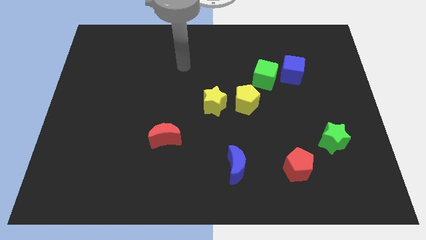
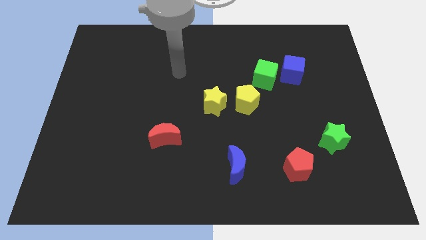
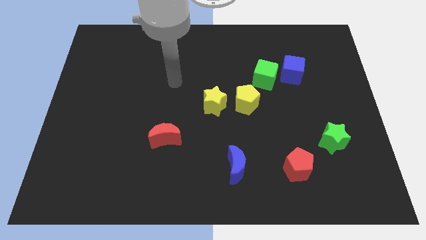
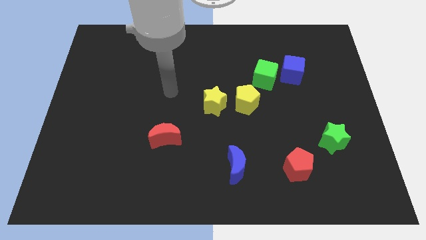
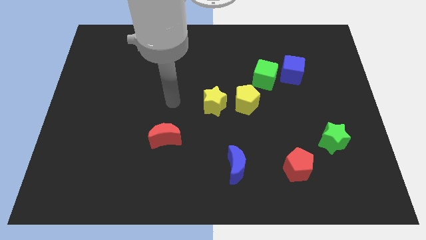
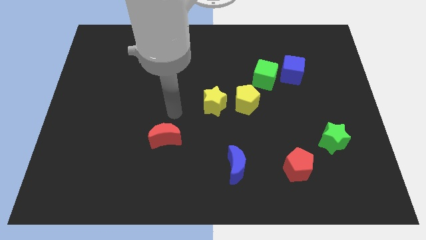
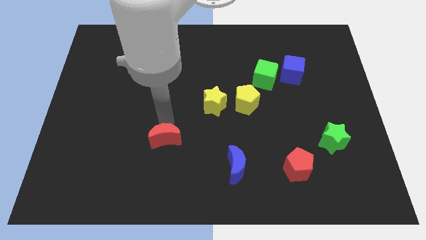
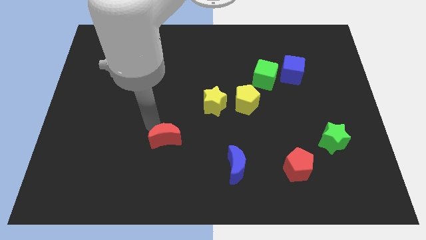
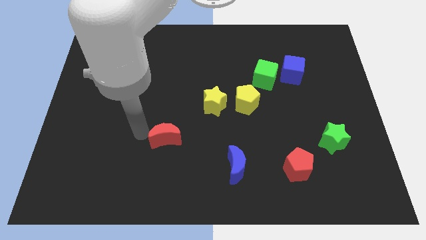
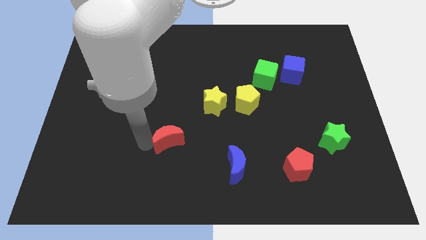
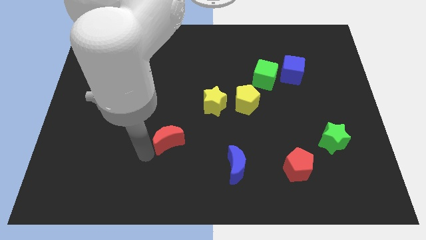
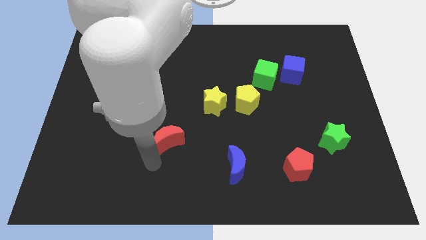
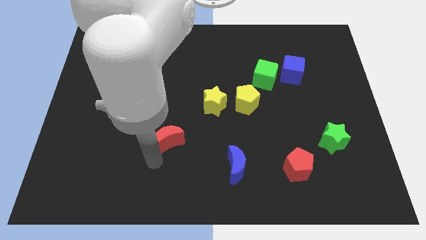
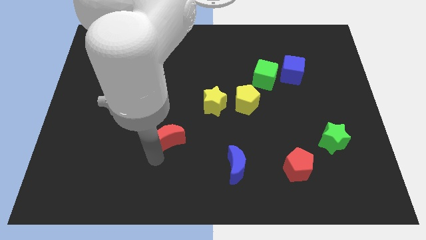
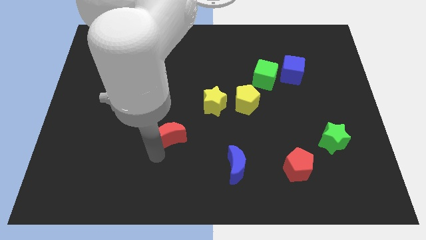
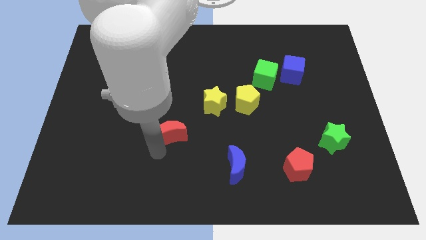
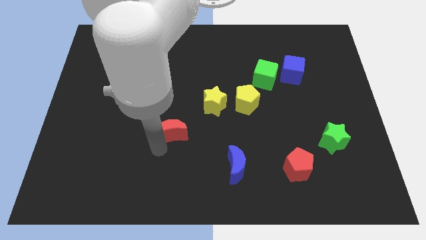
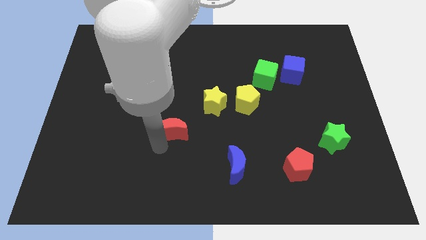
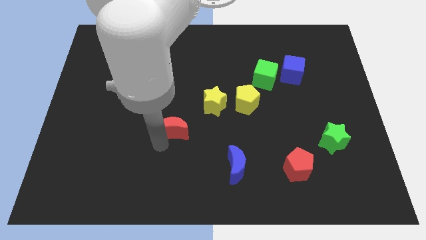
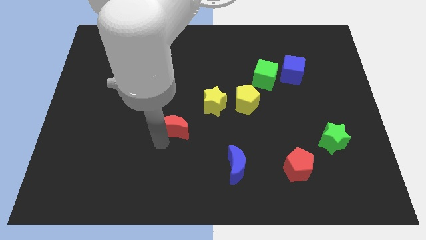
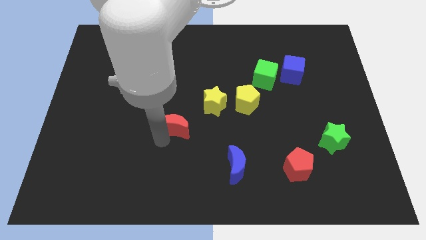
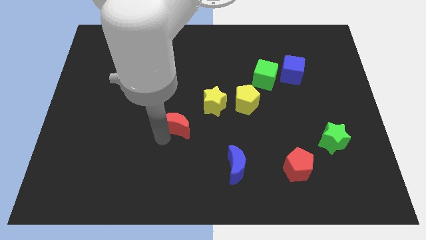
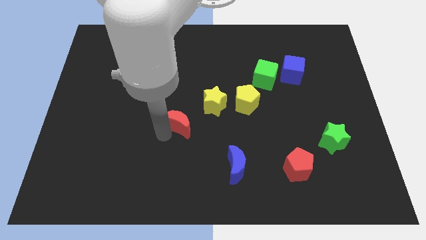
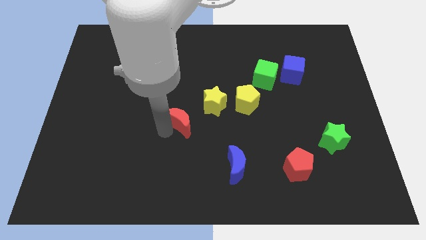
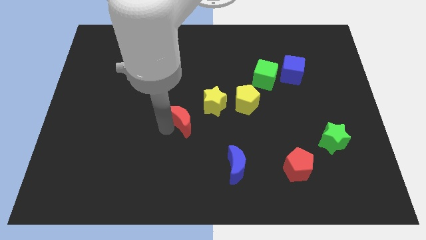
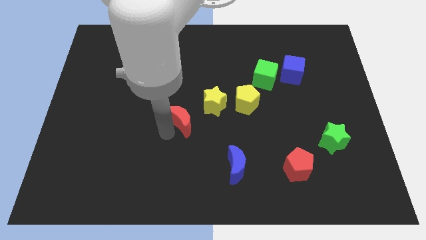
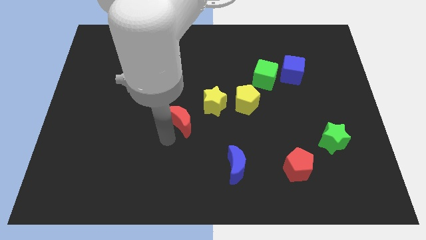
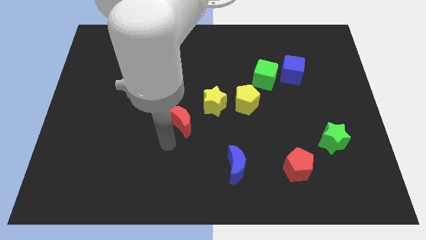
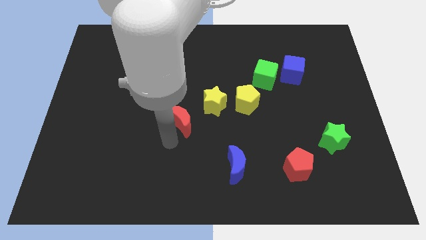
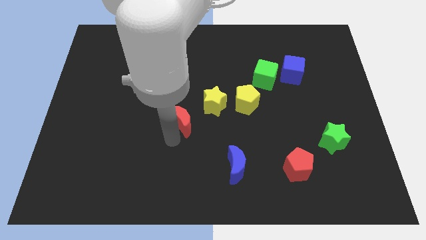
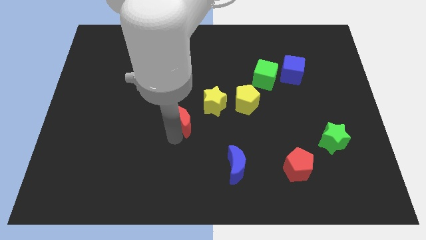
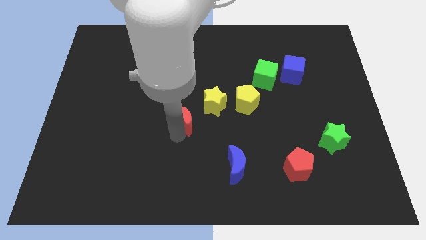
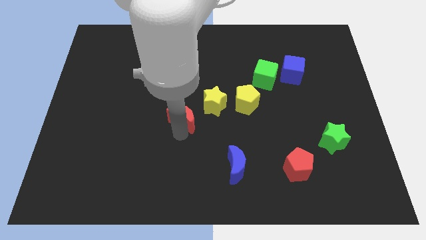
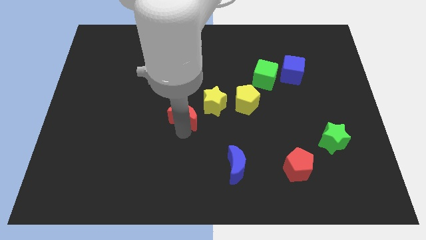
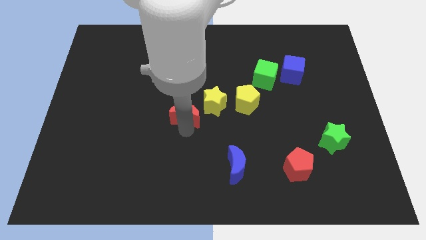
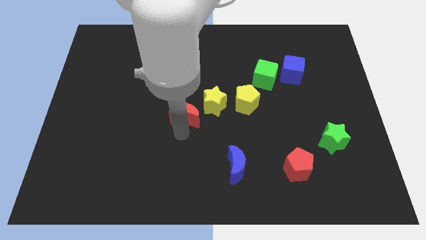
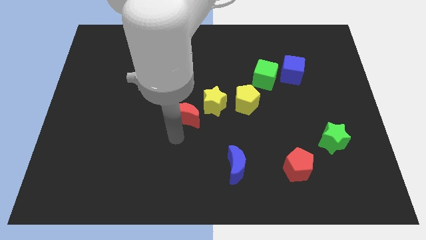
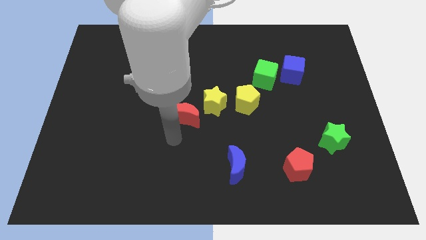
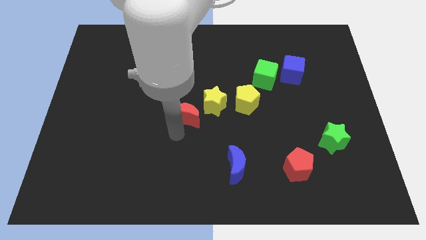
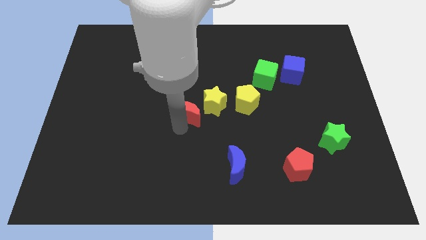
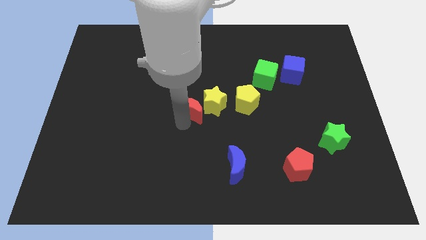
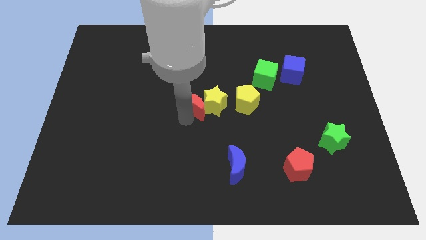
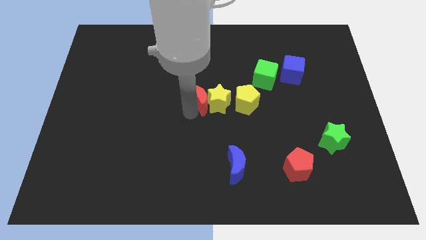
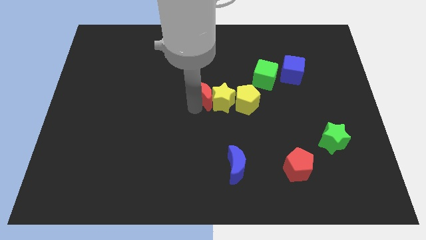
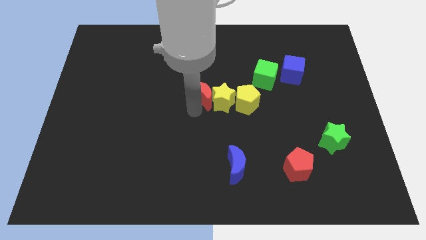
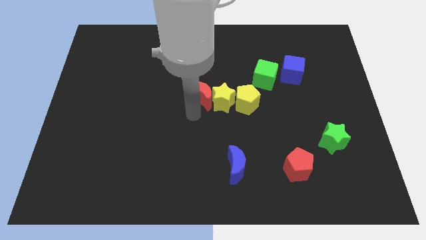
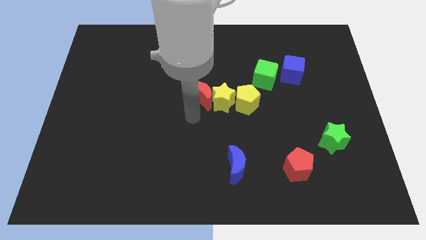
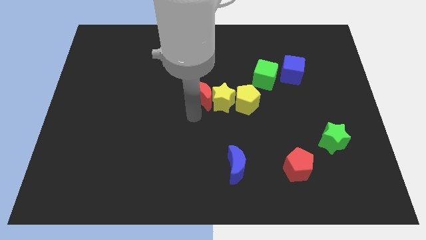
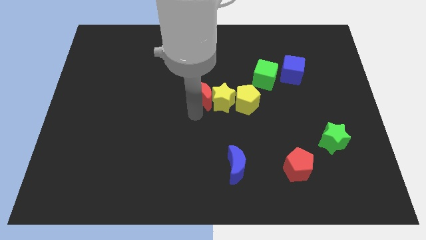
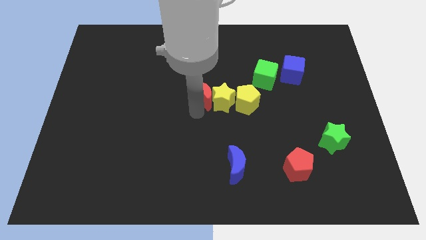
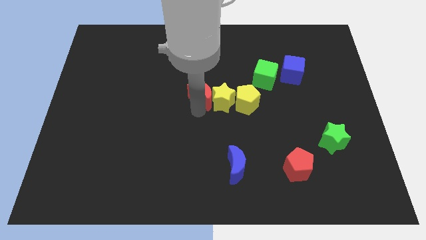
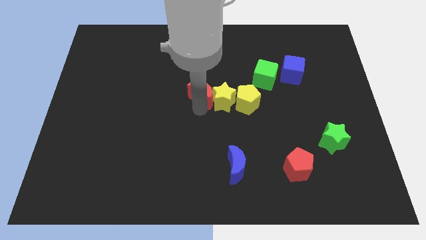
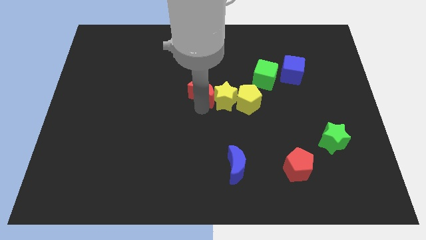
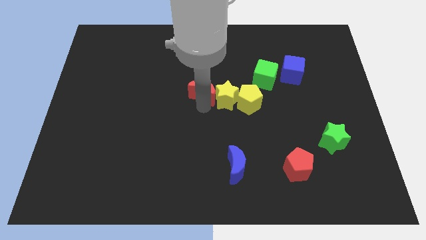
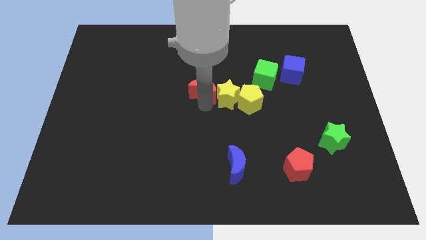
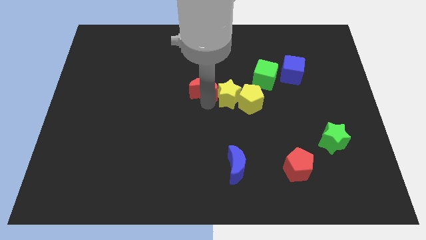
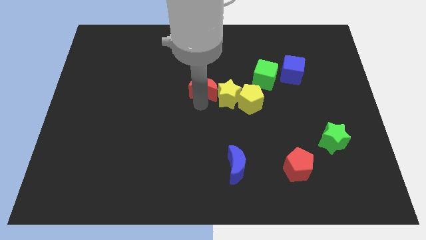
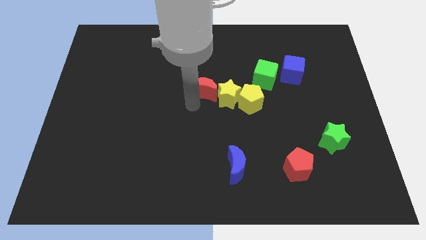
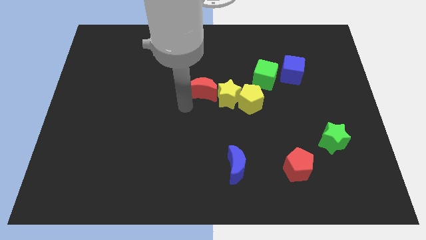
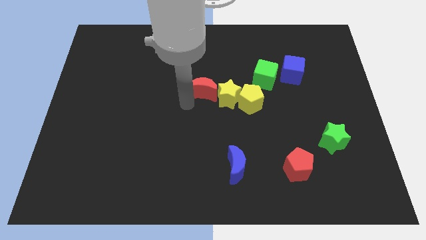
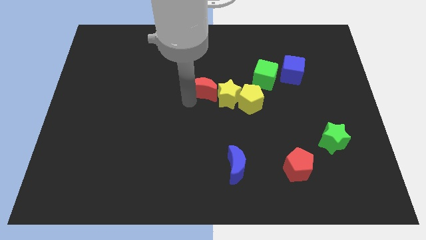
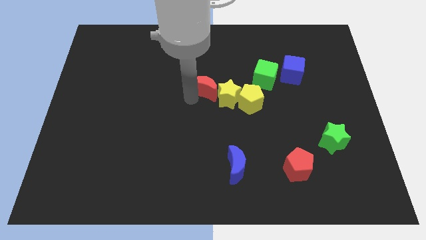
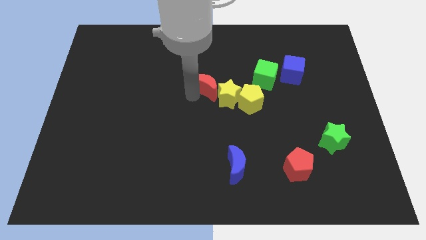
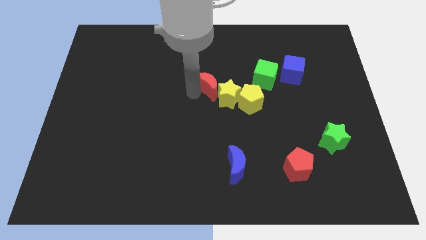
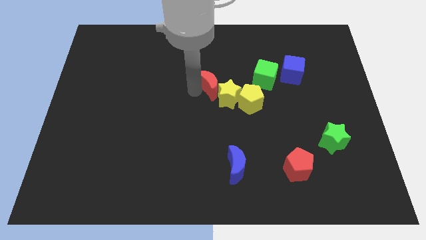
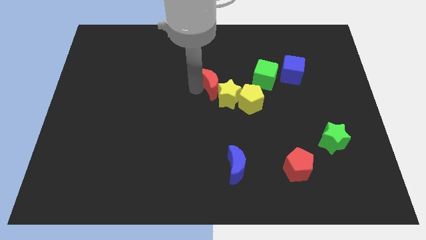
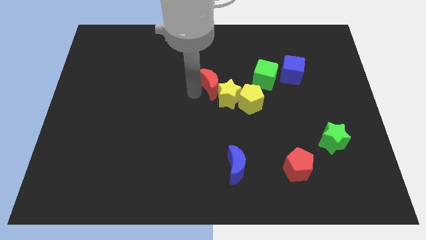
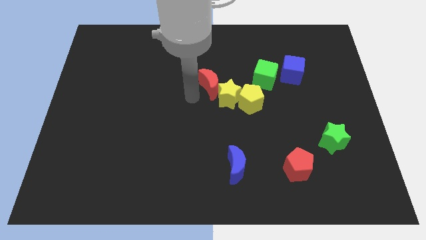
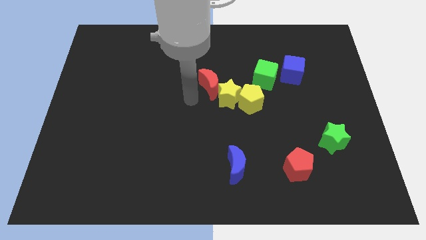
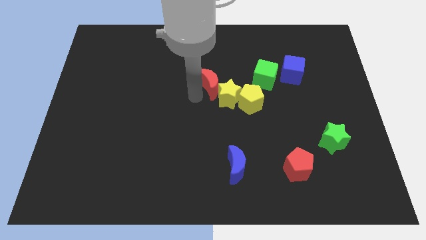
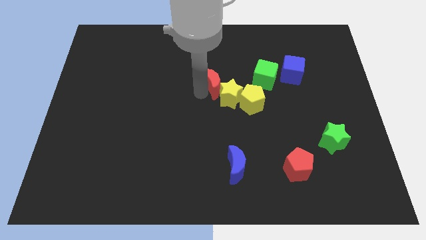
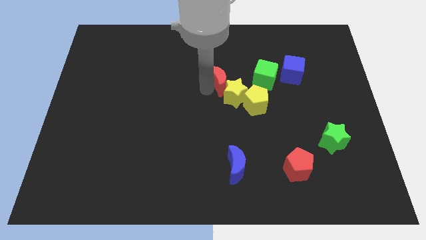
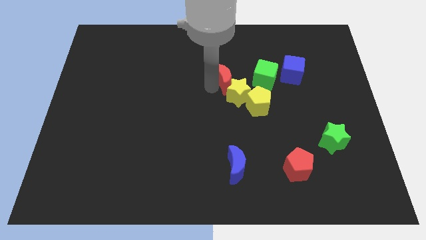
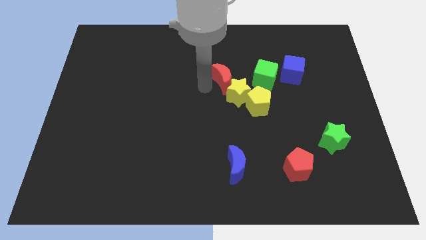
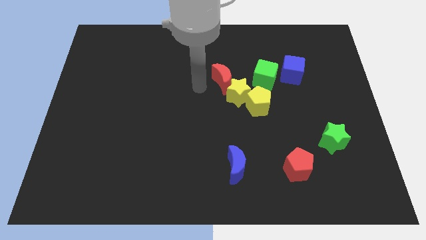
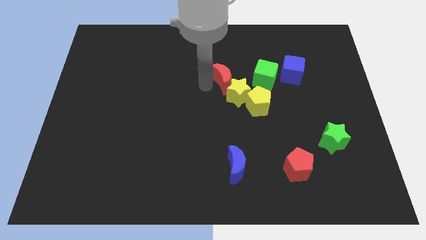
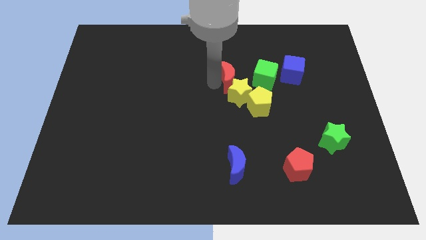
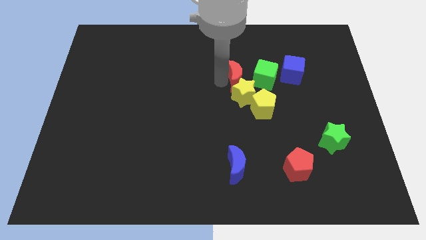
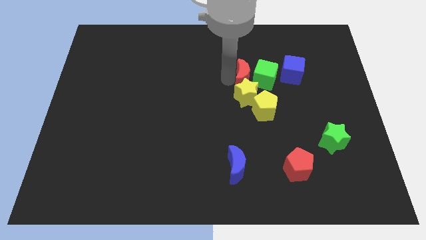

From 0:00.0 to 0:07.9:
put the red moon to the top side of the yellow pentagon
